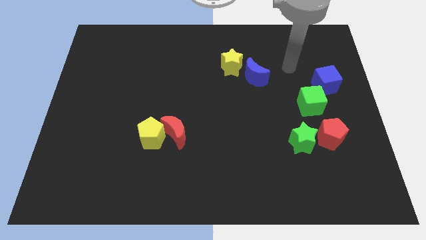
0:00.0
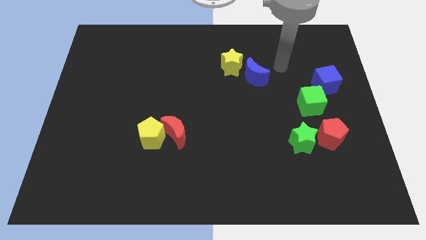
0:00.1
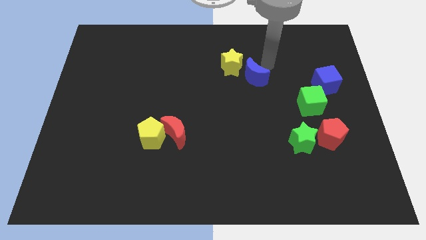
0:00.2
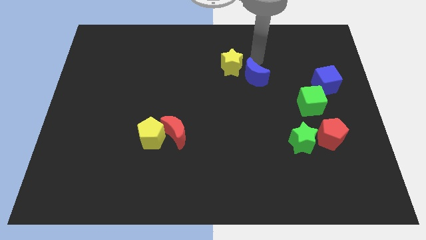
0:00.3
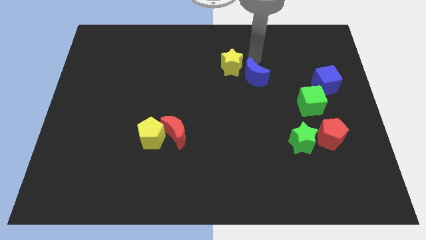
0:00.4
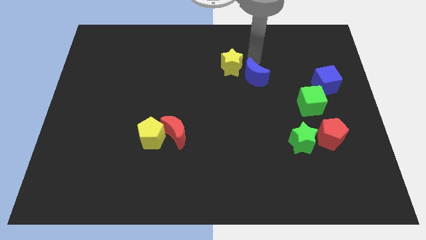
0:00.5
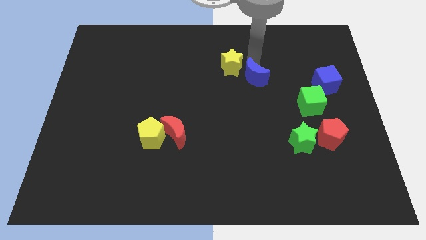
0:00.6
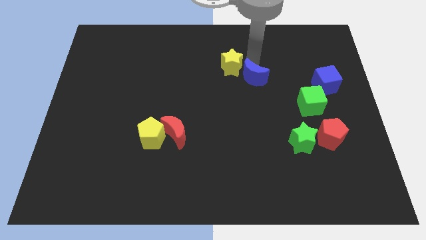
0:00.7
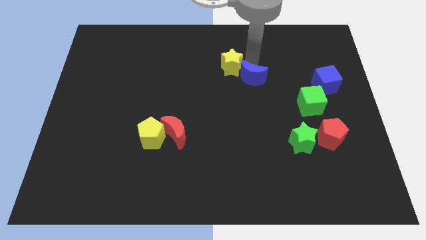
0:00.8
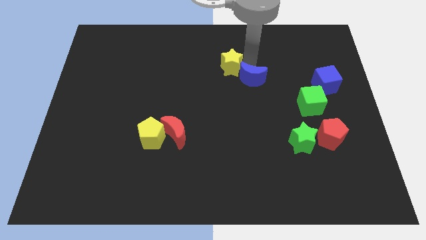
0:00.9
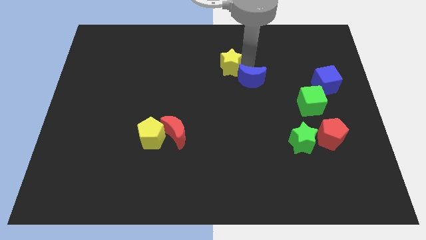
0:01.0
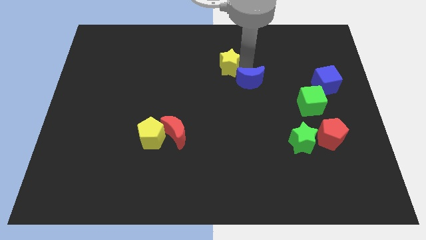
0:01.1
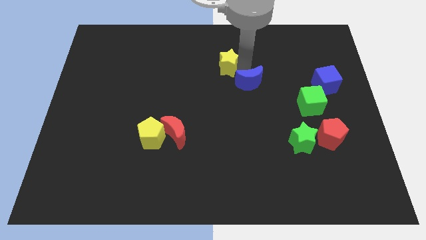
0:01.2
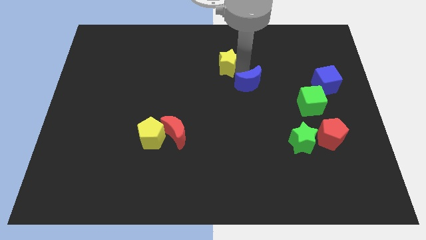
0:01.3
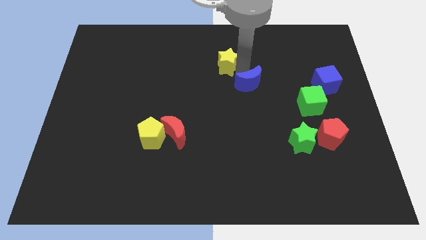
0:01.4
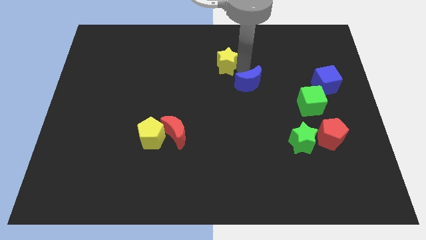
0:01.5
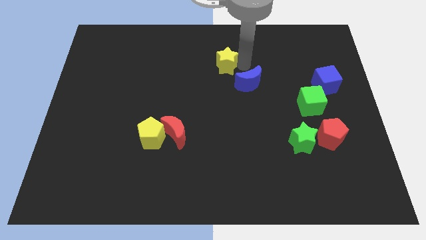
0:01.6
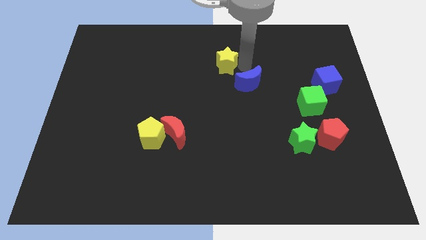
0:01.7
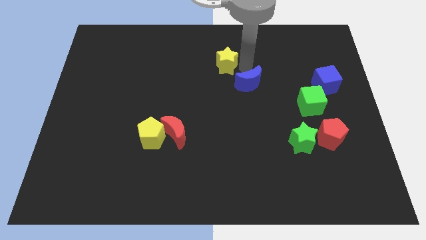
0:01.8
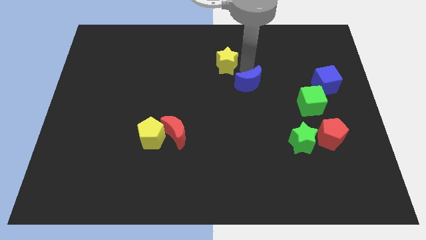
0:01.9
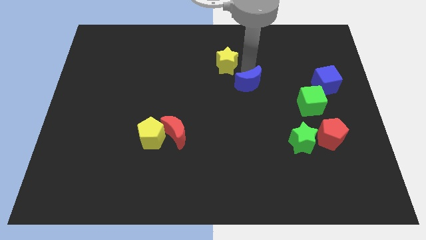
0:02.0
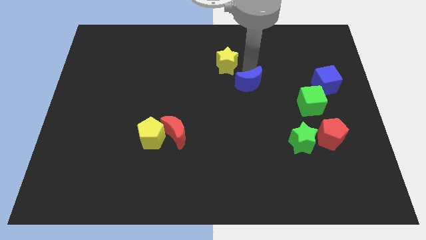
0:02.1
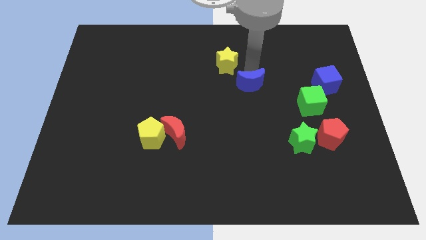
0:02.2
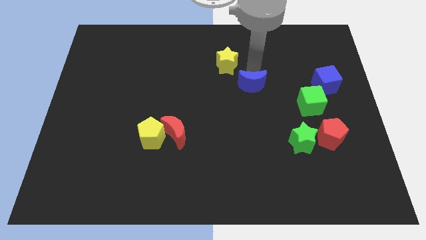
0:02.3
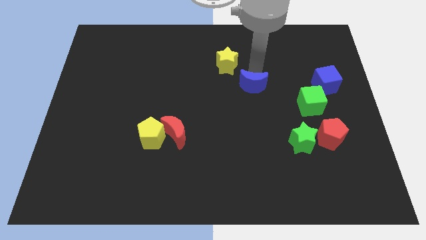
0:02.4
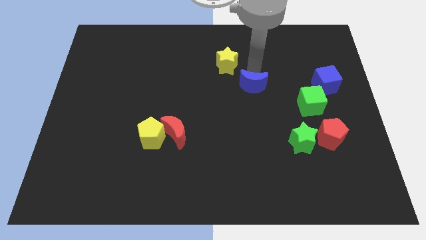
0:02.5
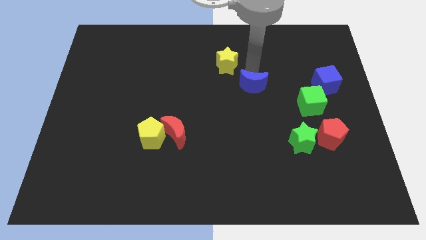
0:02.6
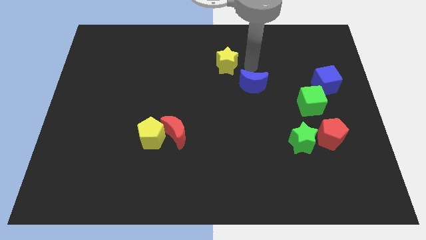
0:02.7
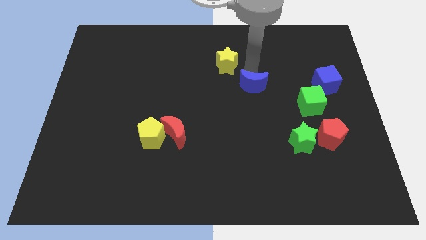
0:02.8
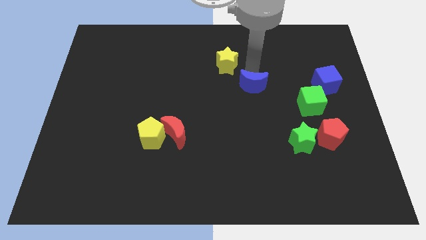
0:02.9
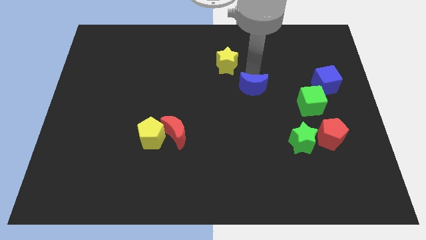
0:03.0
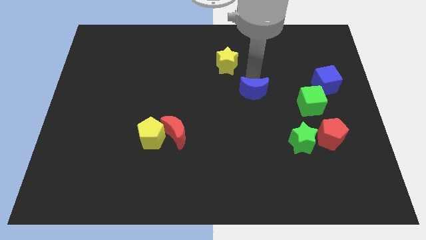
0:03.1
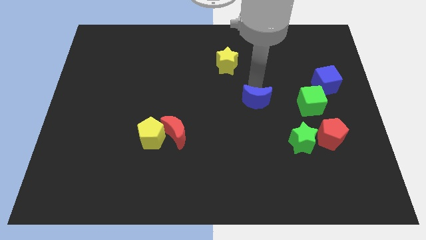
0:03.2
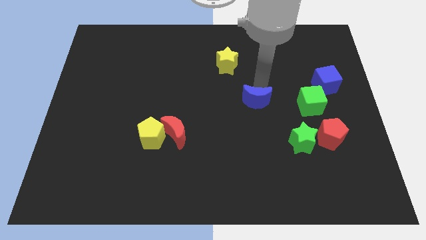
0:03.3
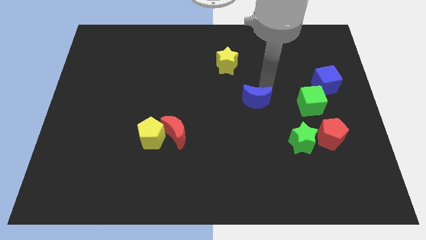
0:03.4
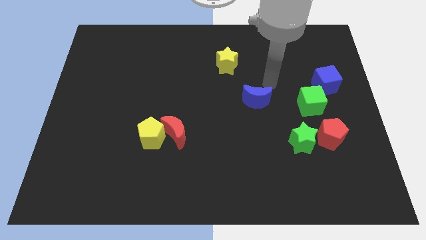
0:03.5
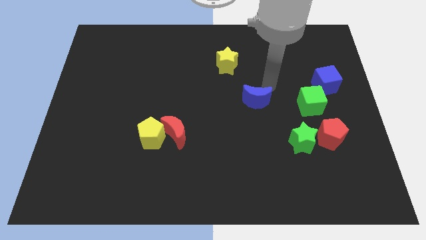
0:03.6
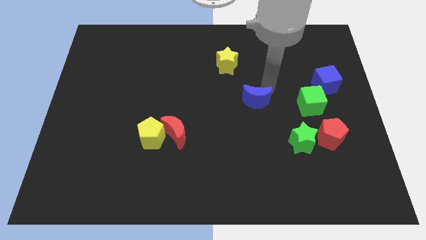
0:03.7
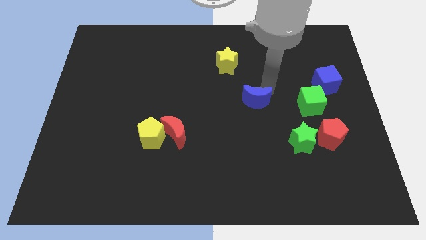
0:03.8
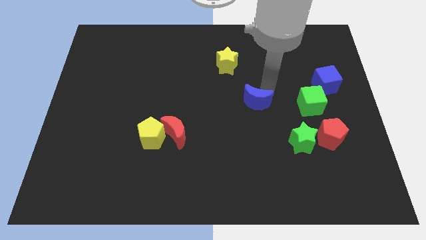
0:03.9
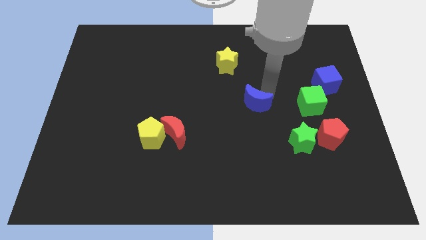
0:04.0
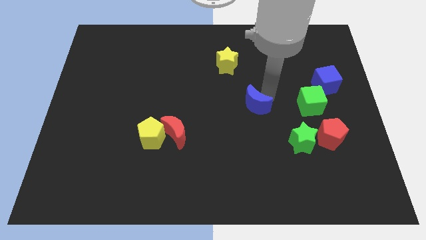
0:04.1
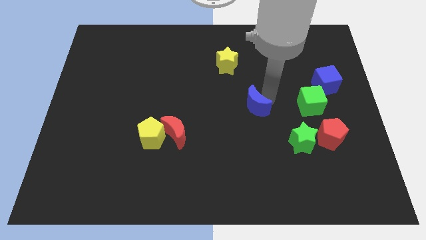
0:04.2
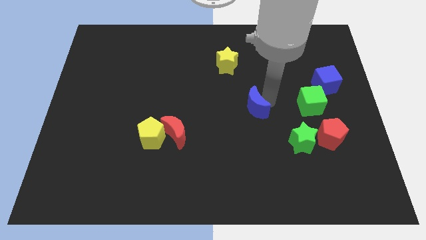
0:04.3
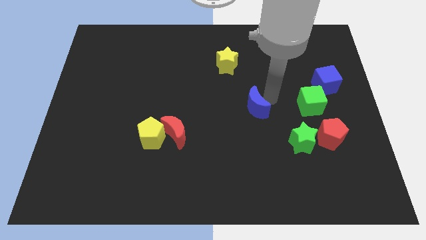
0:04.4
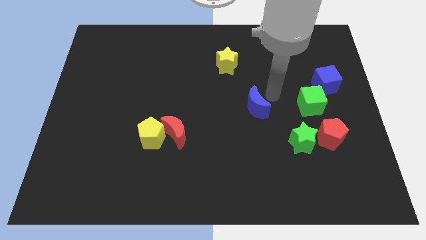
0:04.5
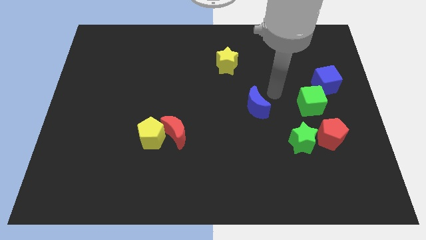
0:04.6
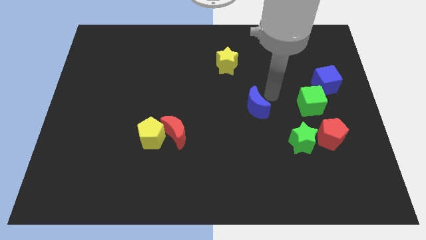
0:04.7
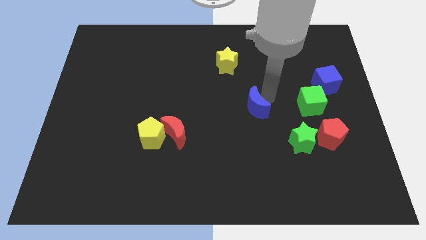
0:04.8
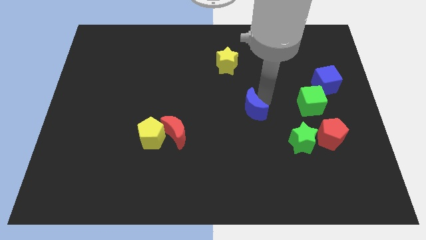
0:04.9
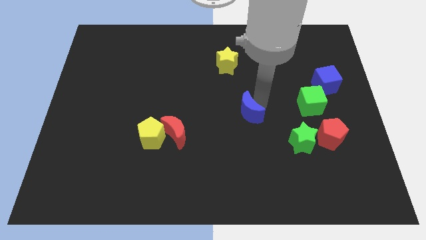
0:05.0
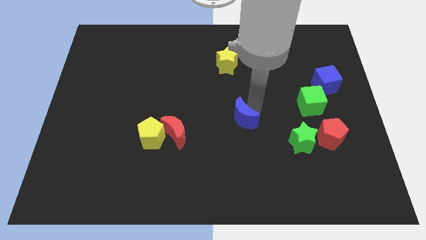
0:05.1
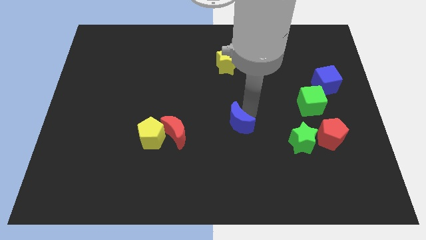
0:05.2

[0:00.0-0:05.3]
put the blue moon to the right of the red moon

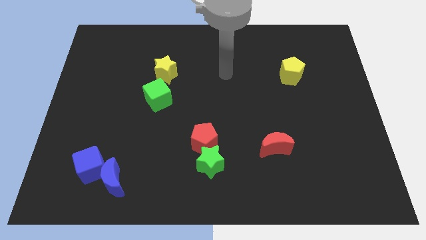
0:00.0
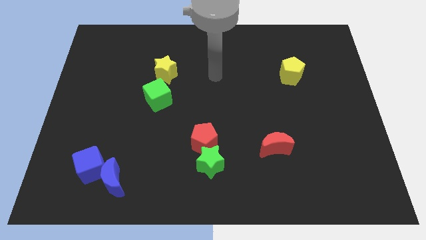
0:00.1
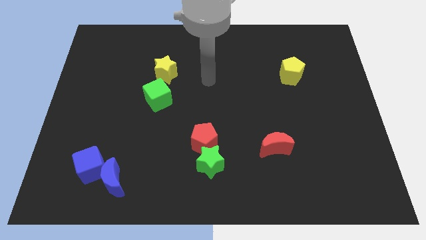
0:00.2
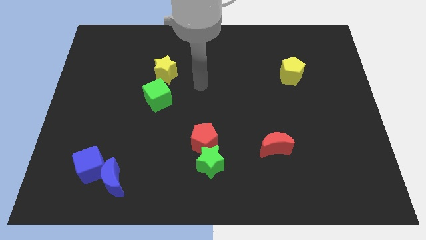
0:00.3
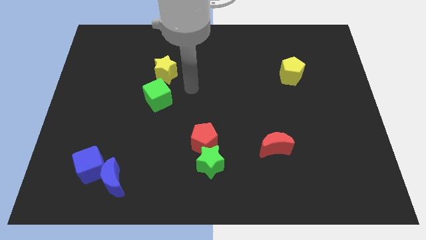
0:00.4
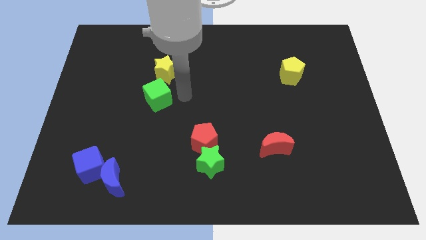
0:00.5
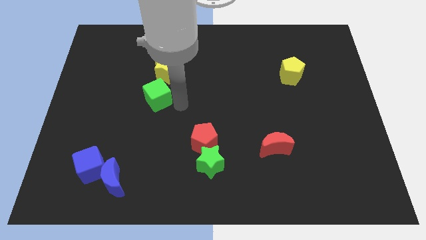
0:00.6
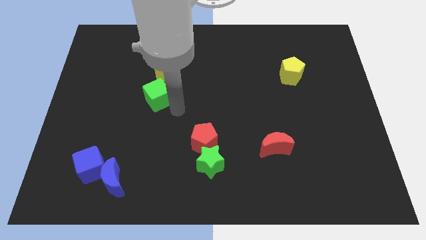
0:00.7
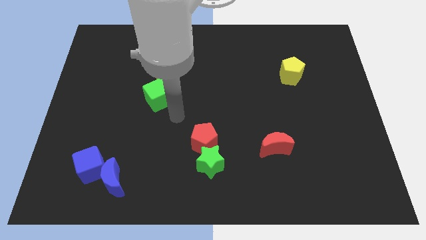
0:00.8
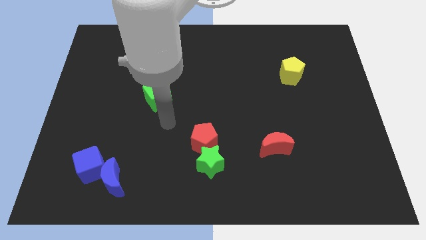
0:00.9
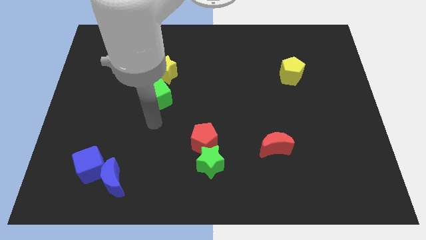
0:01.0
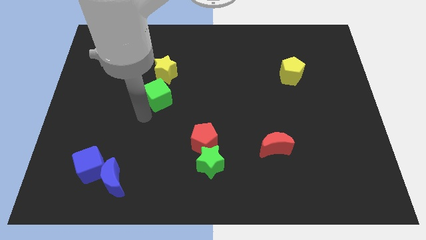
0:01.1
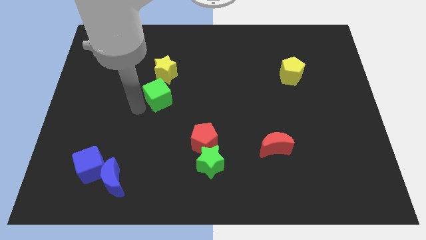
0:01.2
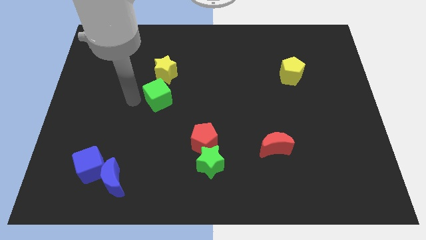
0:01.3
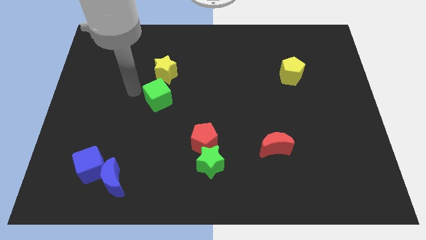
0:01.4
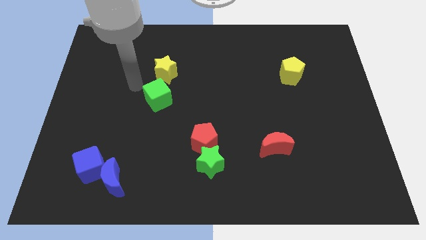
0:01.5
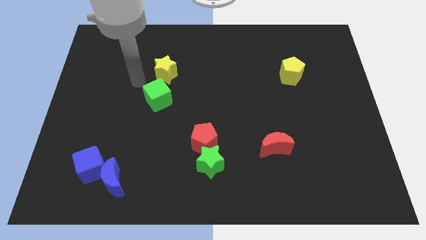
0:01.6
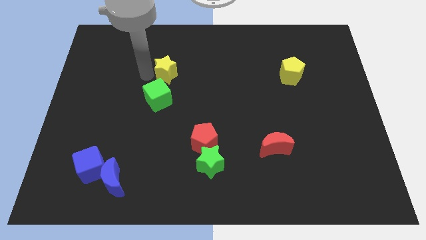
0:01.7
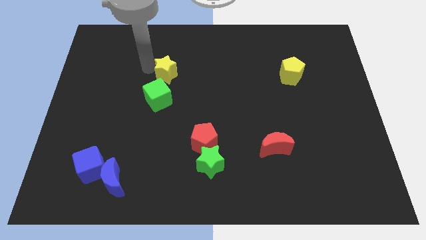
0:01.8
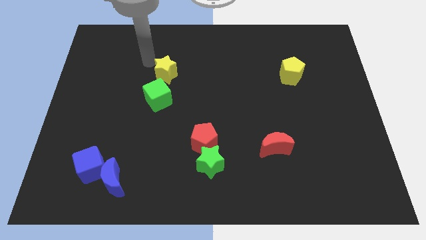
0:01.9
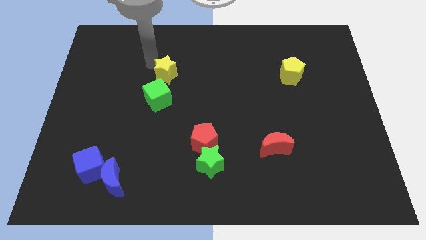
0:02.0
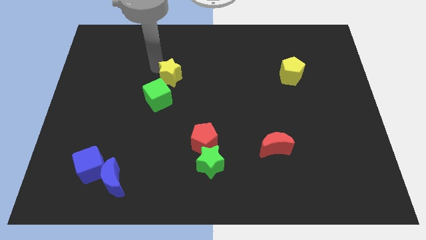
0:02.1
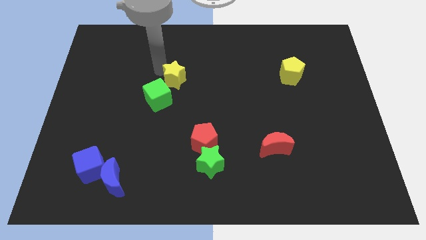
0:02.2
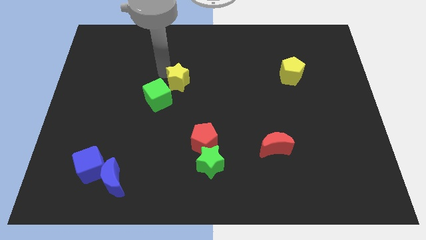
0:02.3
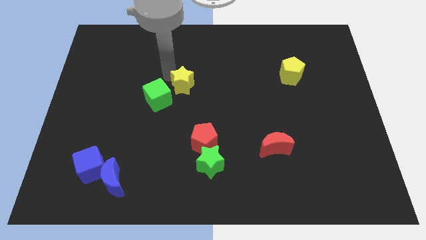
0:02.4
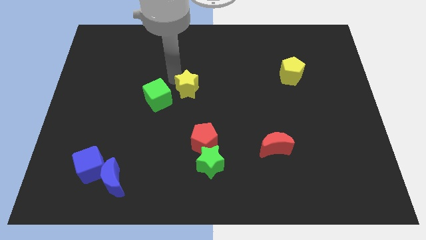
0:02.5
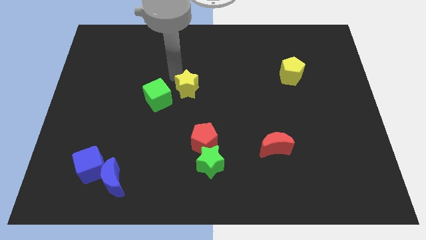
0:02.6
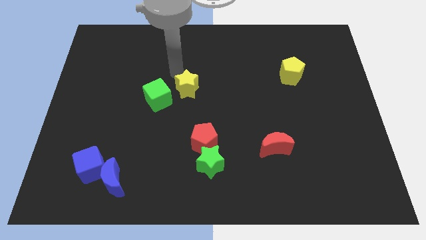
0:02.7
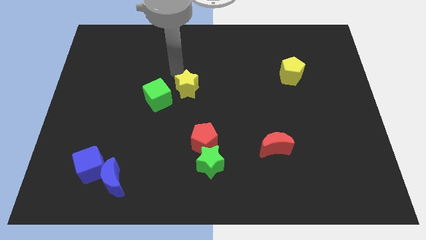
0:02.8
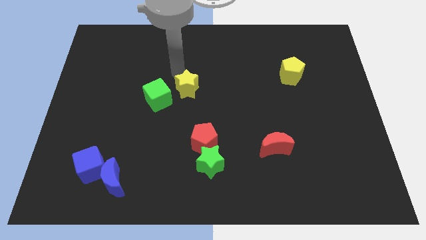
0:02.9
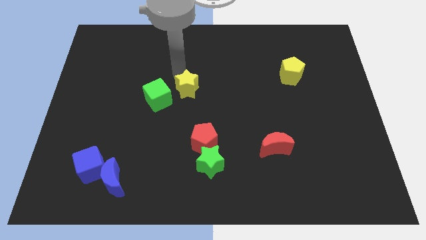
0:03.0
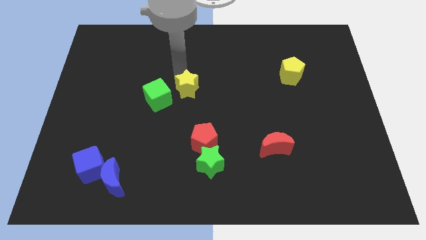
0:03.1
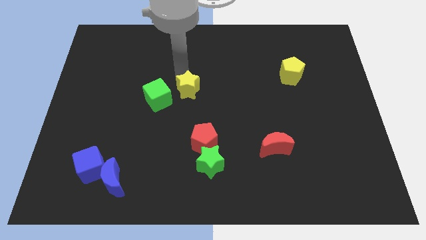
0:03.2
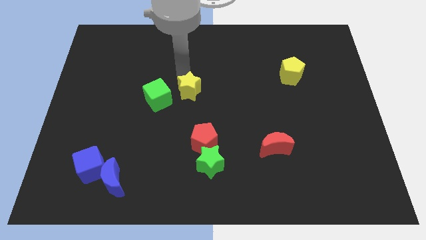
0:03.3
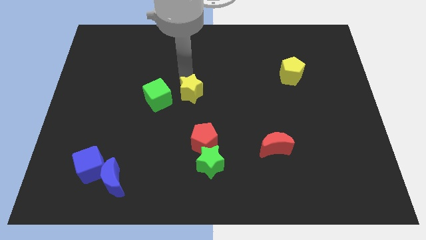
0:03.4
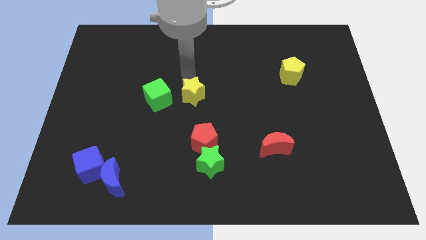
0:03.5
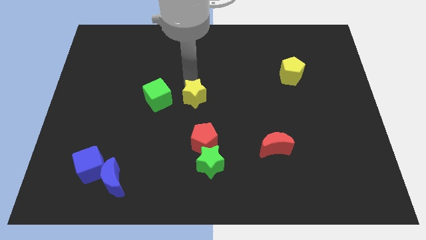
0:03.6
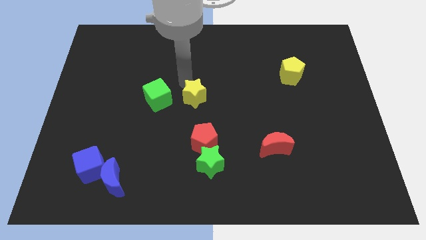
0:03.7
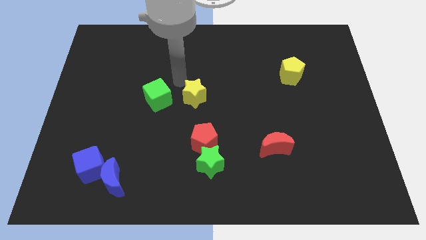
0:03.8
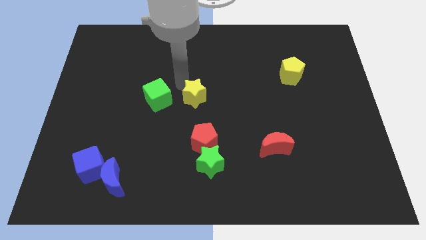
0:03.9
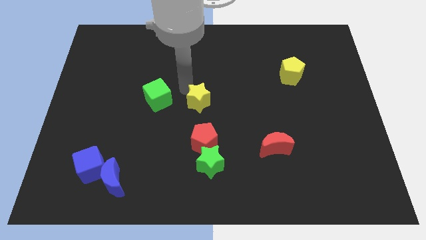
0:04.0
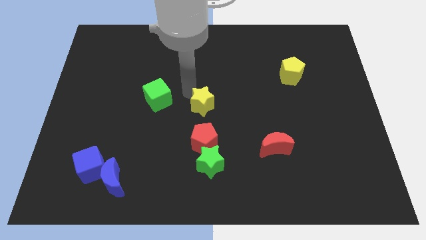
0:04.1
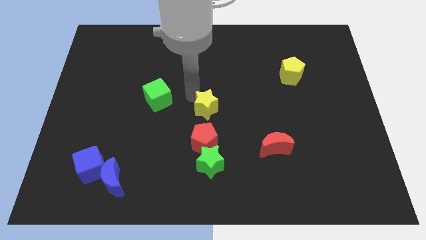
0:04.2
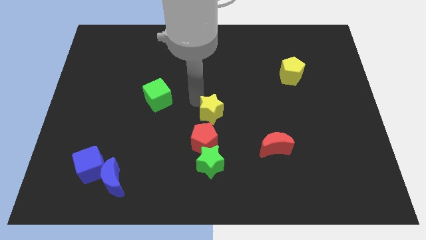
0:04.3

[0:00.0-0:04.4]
push the yellow star to the top right side of the red pentagon
